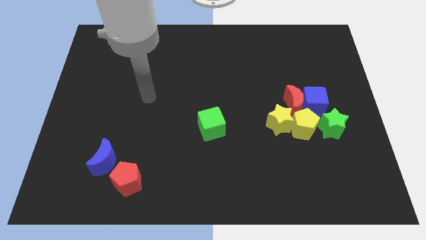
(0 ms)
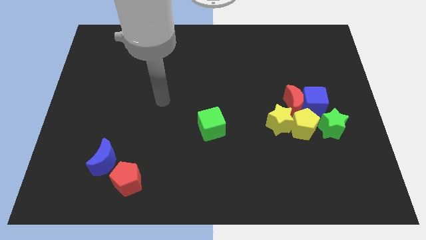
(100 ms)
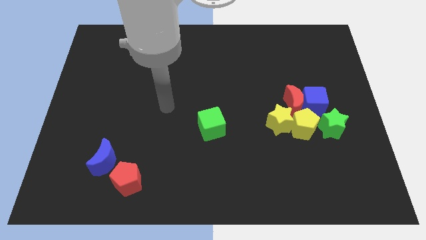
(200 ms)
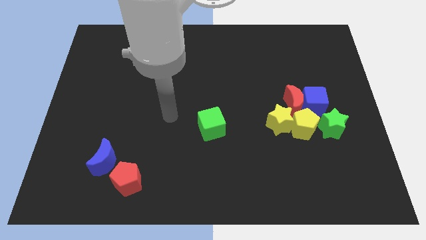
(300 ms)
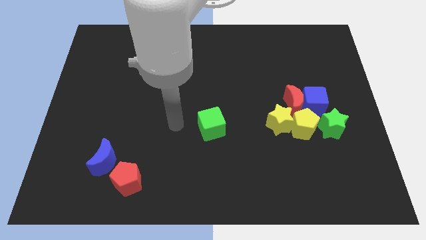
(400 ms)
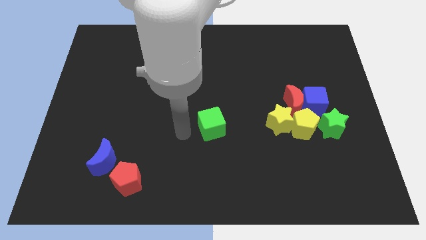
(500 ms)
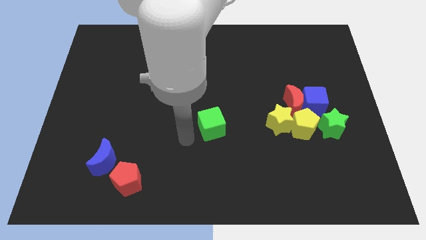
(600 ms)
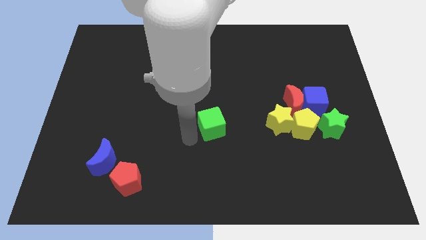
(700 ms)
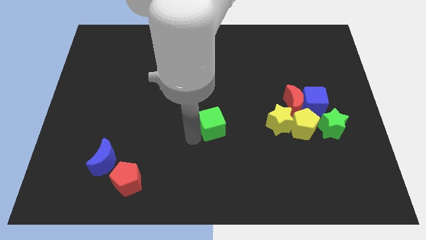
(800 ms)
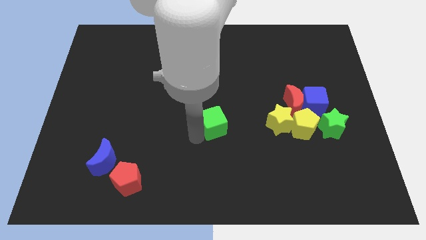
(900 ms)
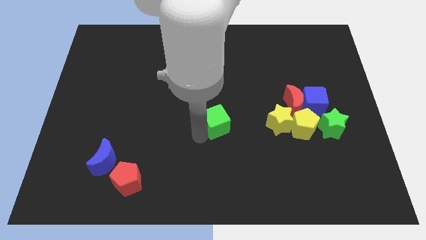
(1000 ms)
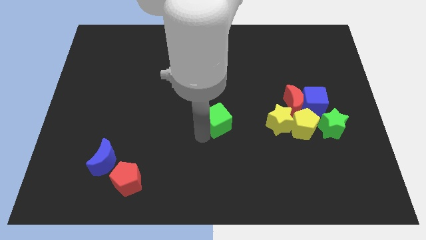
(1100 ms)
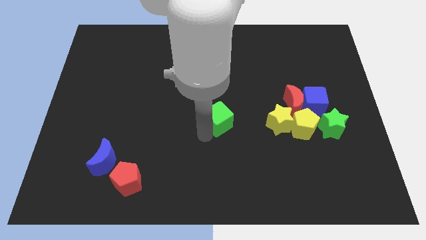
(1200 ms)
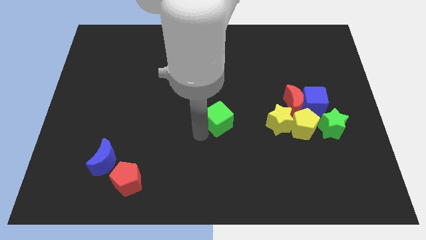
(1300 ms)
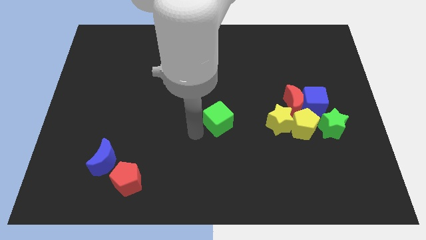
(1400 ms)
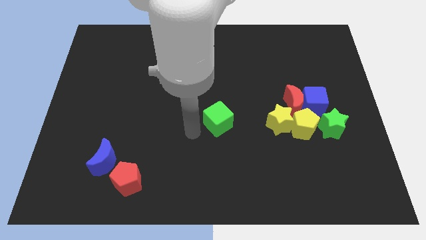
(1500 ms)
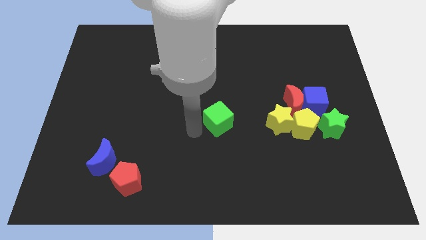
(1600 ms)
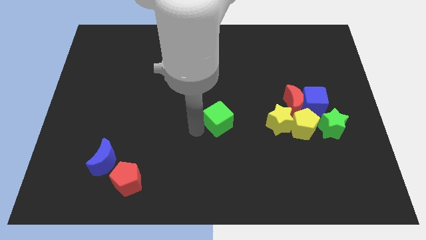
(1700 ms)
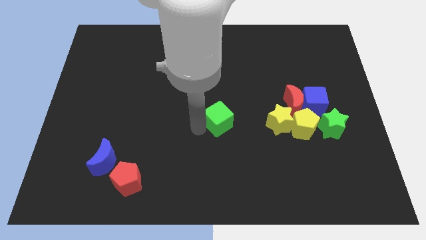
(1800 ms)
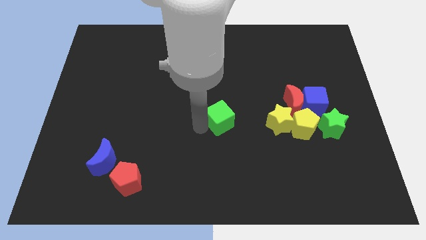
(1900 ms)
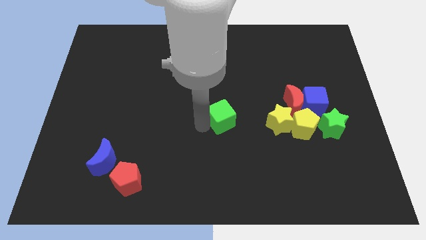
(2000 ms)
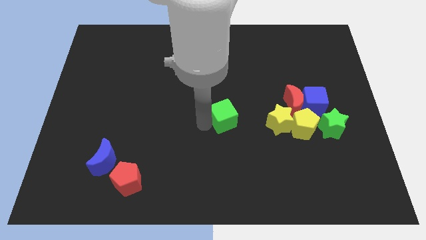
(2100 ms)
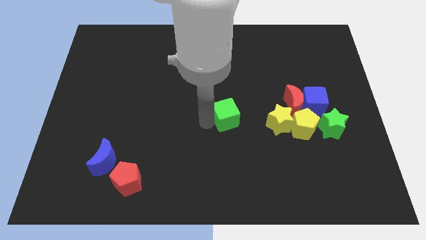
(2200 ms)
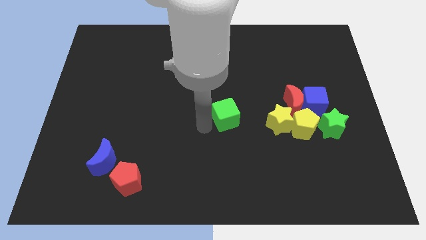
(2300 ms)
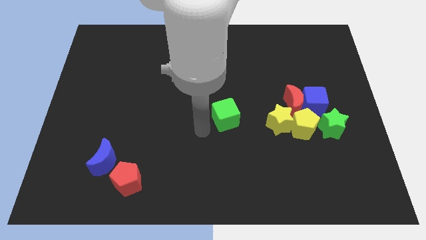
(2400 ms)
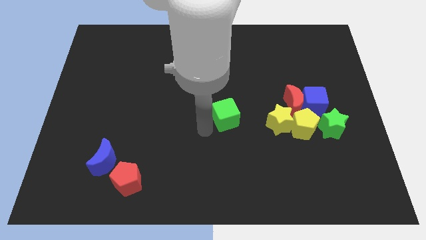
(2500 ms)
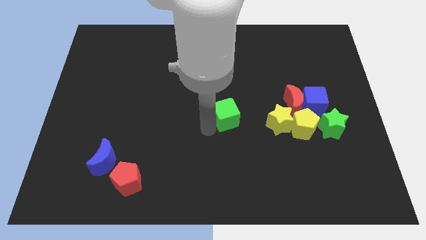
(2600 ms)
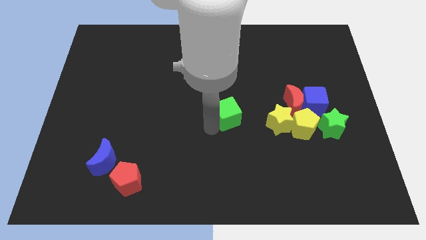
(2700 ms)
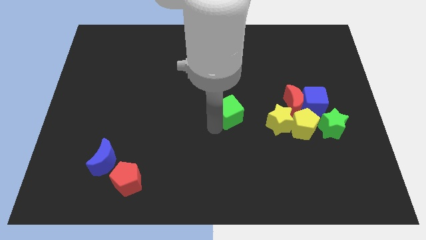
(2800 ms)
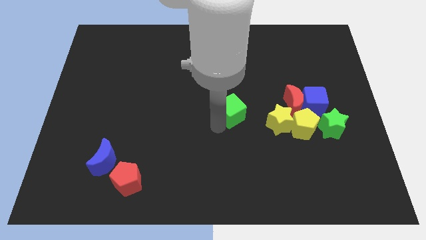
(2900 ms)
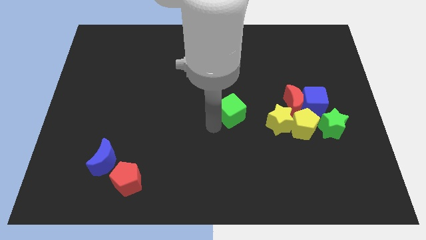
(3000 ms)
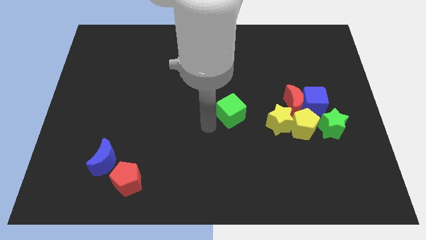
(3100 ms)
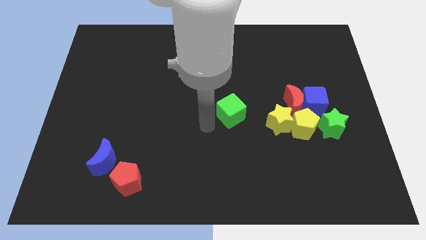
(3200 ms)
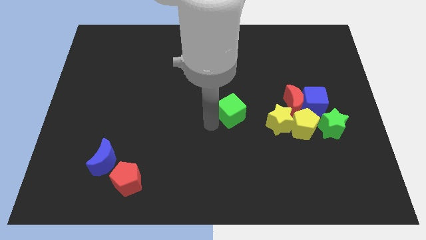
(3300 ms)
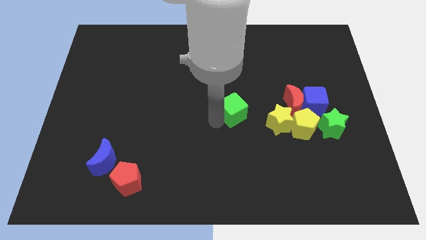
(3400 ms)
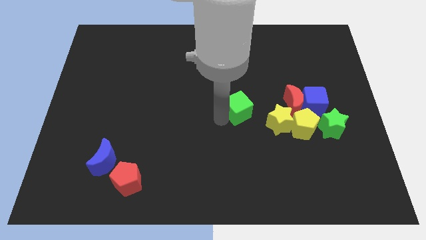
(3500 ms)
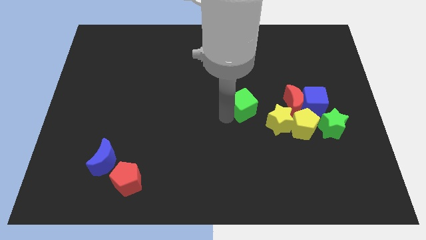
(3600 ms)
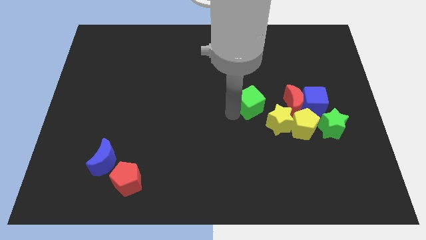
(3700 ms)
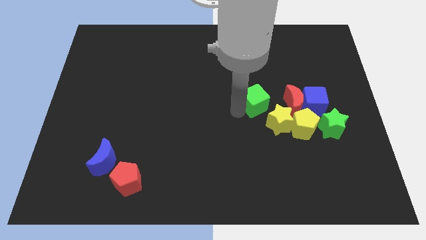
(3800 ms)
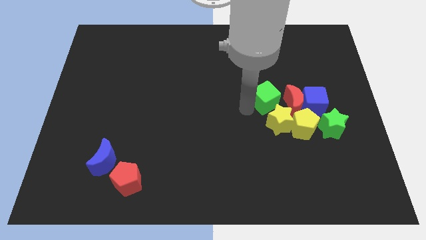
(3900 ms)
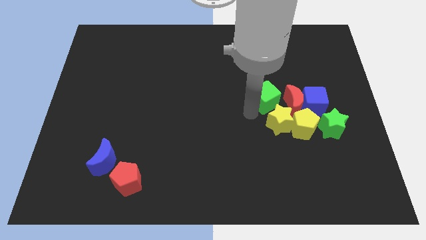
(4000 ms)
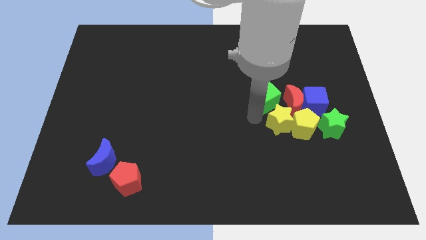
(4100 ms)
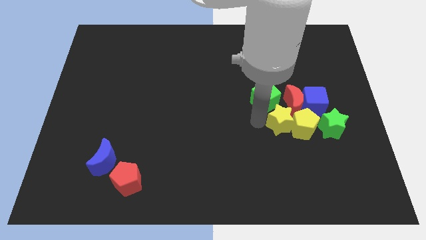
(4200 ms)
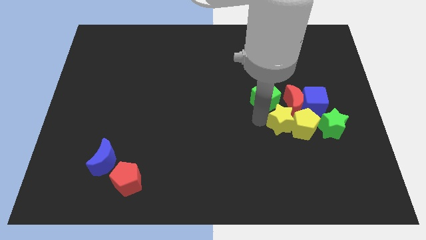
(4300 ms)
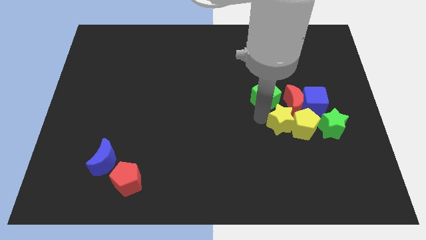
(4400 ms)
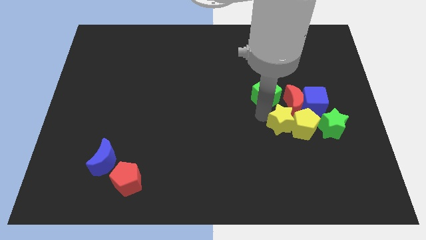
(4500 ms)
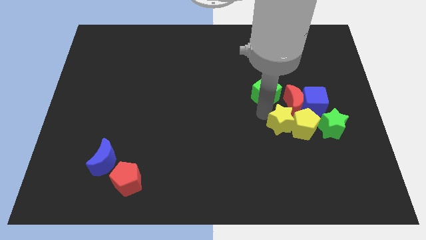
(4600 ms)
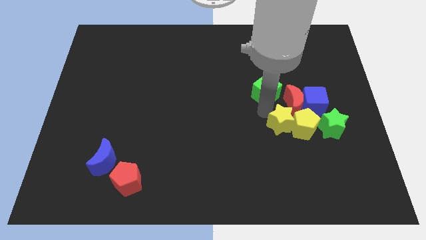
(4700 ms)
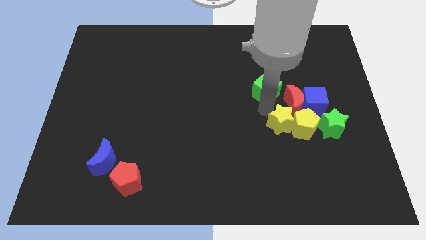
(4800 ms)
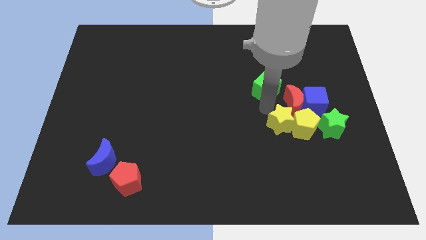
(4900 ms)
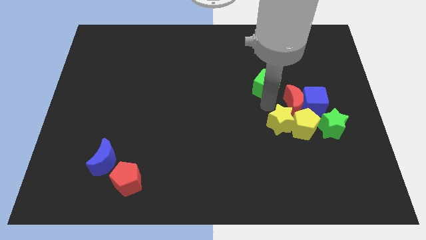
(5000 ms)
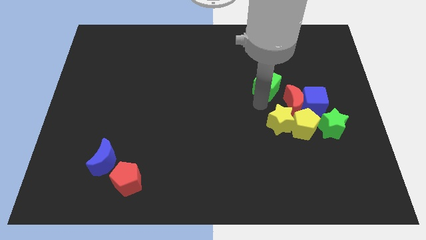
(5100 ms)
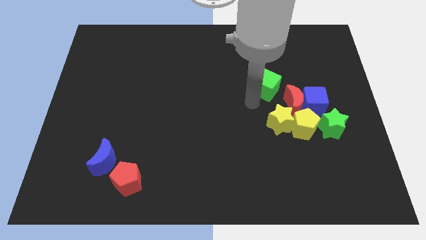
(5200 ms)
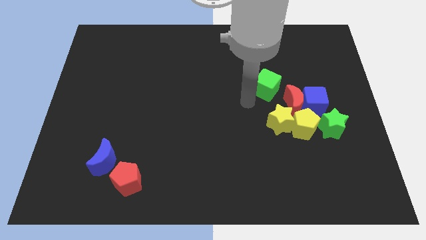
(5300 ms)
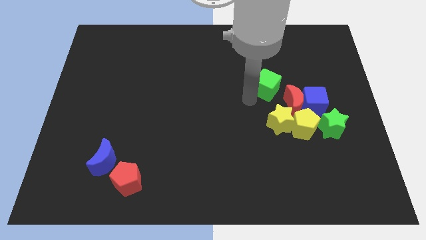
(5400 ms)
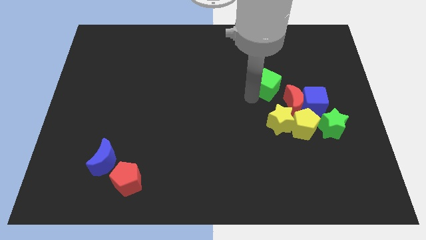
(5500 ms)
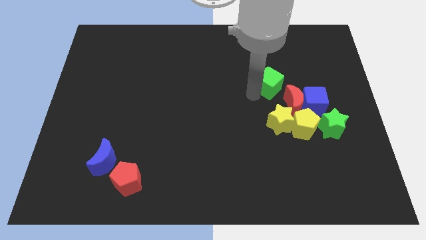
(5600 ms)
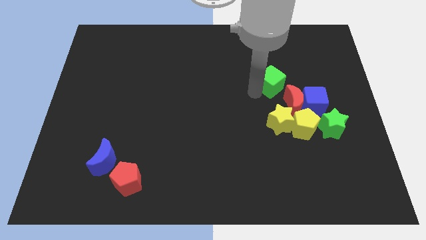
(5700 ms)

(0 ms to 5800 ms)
put the green cube above the red moon

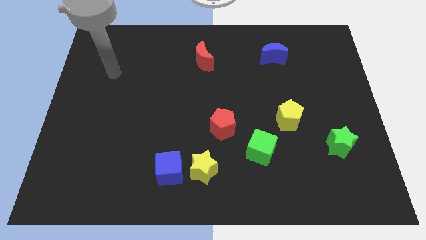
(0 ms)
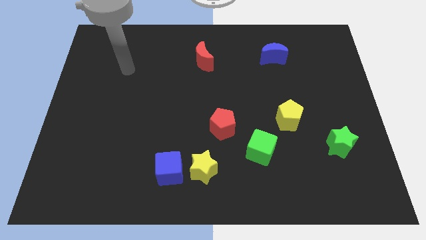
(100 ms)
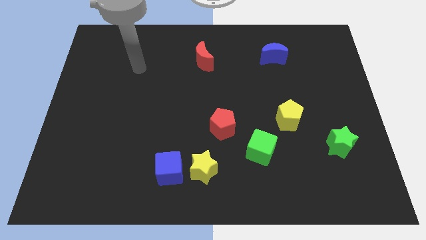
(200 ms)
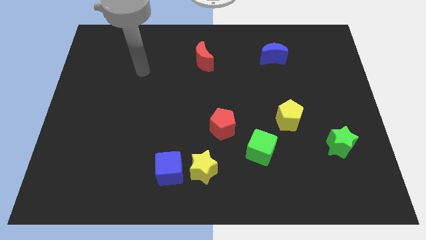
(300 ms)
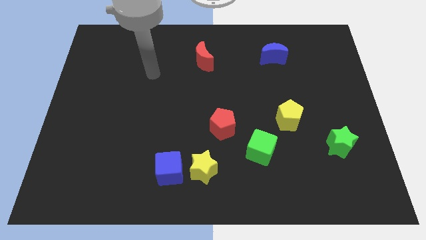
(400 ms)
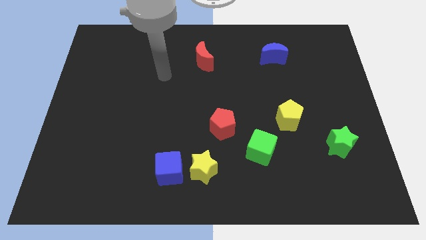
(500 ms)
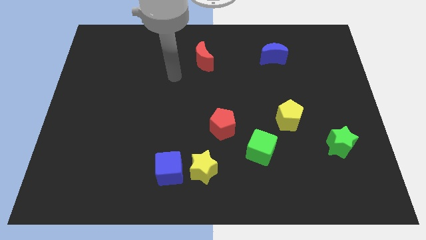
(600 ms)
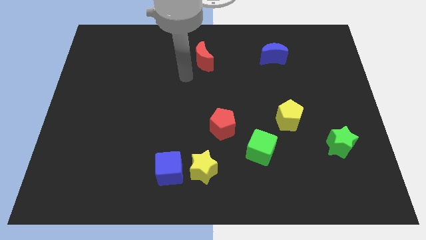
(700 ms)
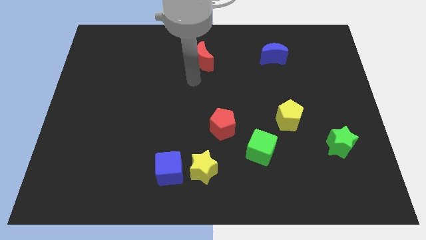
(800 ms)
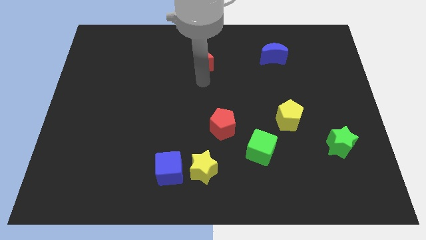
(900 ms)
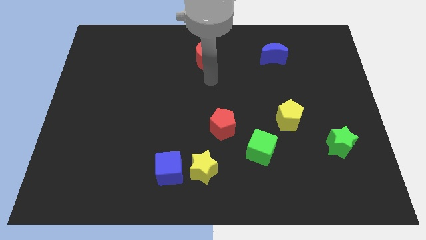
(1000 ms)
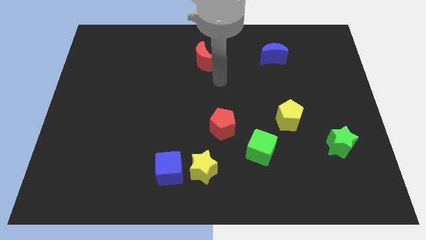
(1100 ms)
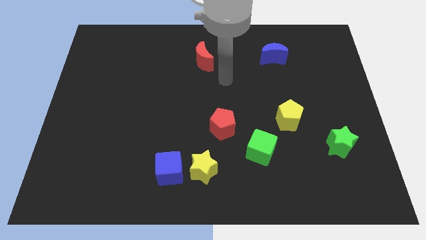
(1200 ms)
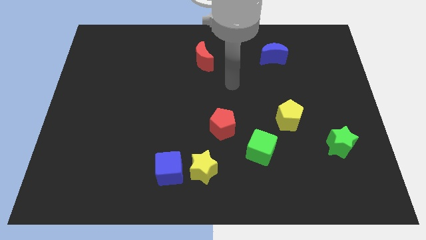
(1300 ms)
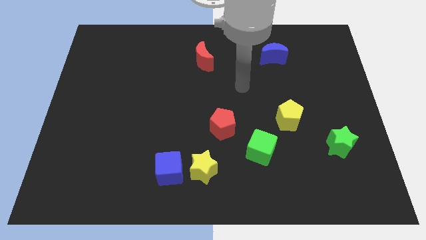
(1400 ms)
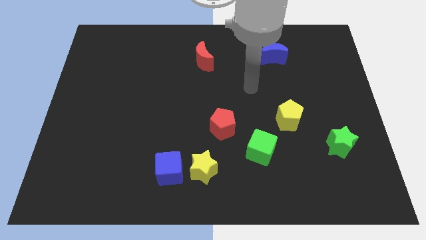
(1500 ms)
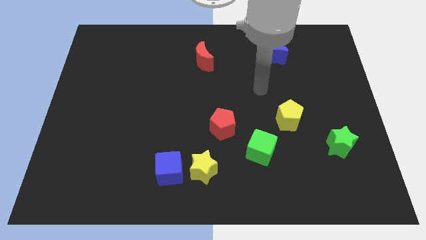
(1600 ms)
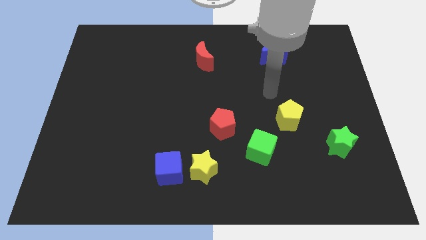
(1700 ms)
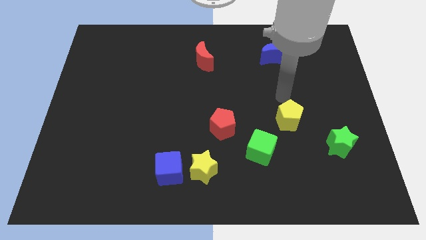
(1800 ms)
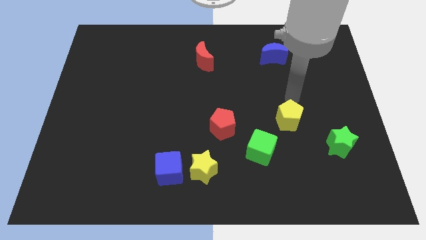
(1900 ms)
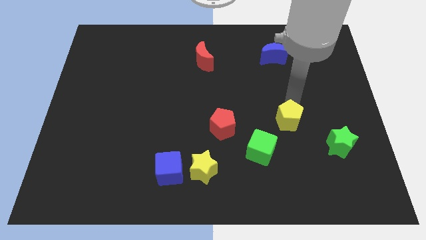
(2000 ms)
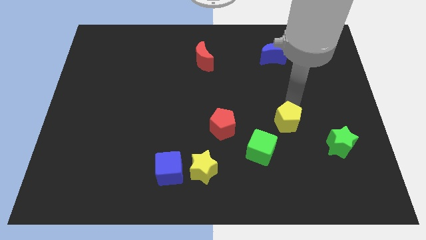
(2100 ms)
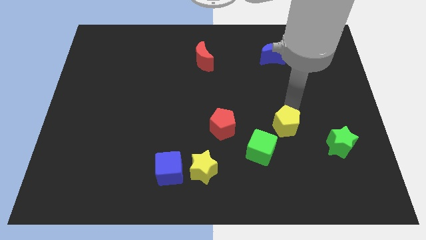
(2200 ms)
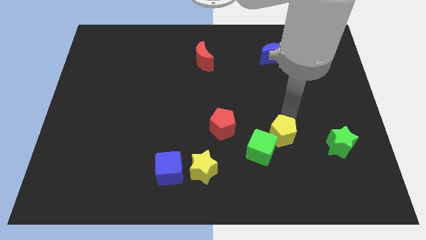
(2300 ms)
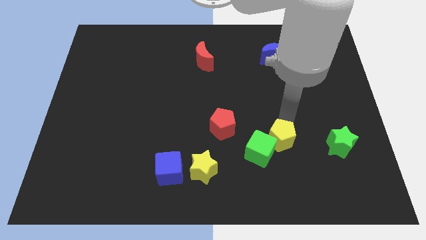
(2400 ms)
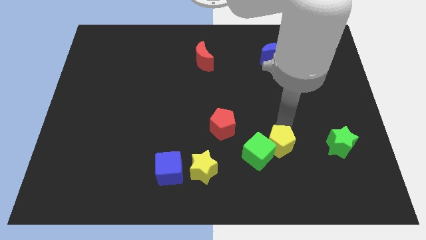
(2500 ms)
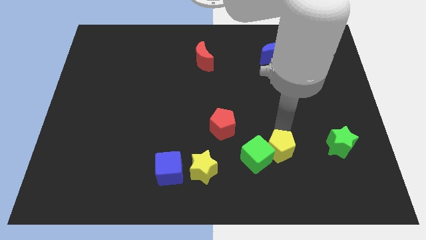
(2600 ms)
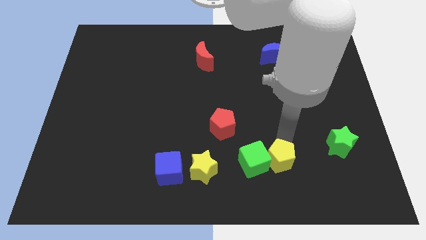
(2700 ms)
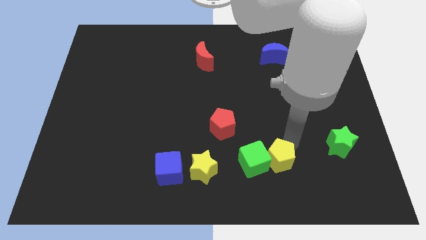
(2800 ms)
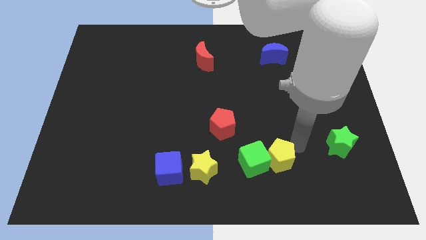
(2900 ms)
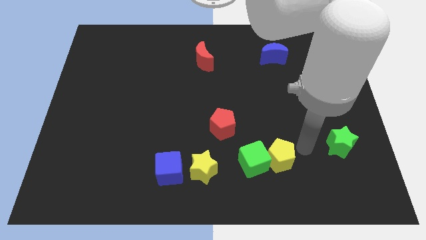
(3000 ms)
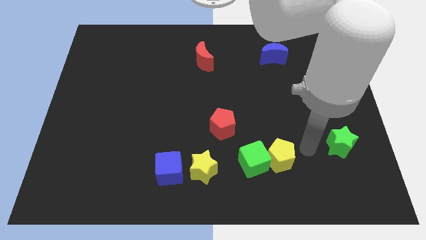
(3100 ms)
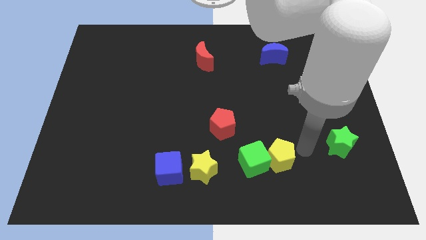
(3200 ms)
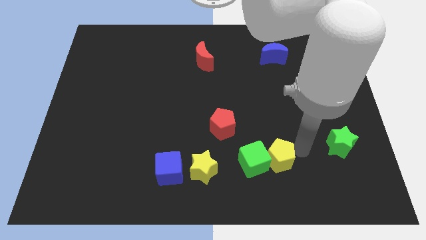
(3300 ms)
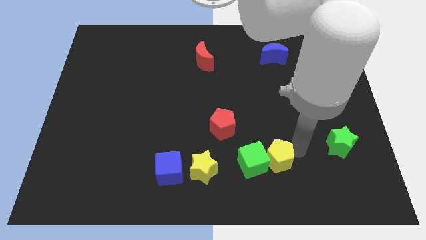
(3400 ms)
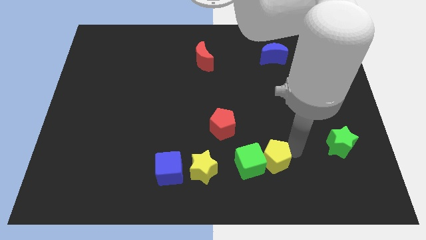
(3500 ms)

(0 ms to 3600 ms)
slide the yellow pentagon right of the yellow star
